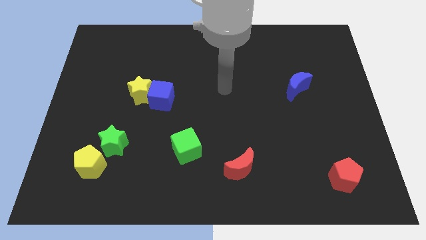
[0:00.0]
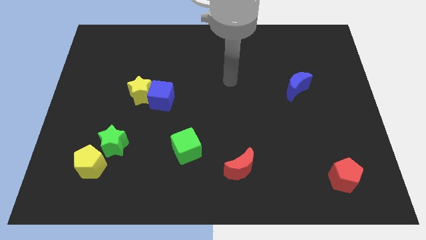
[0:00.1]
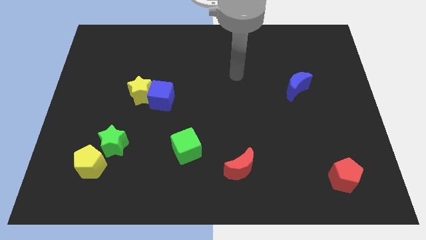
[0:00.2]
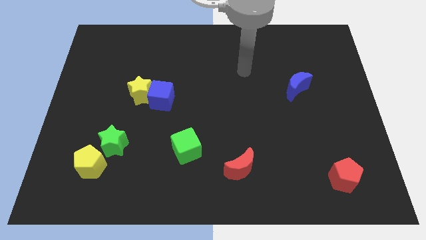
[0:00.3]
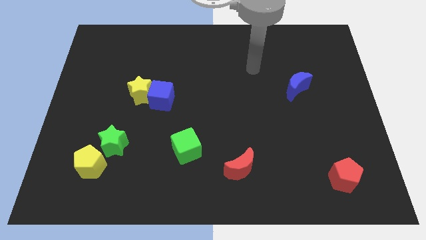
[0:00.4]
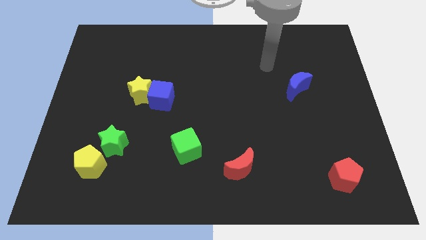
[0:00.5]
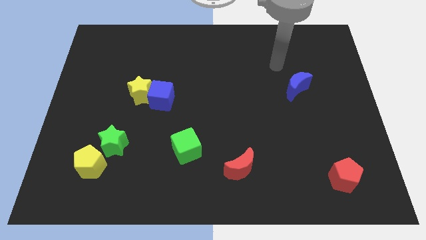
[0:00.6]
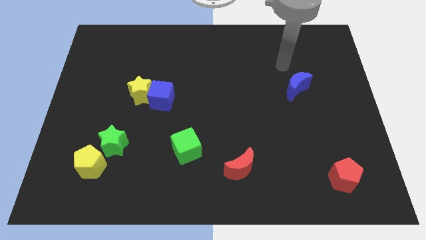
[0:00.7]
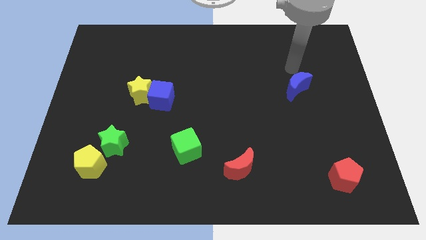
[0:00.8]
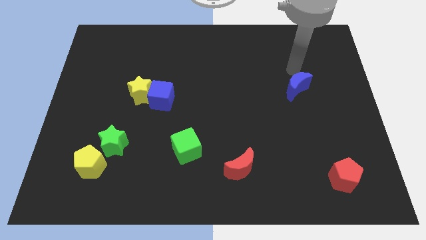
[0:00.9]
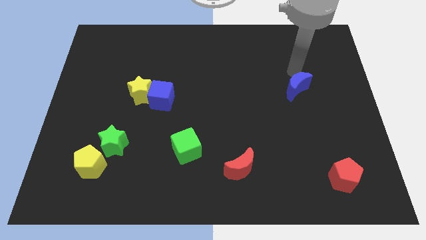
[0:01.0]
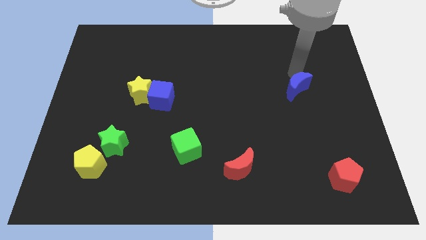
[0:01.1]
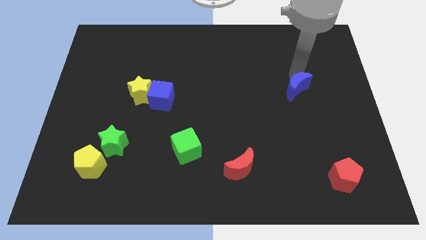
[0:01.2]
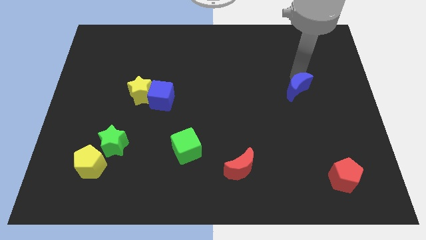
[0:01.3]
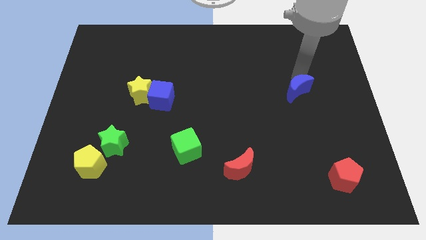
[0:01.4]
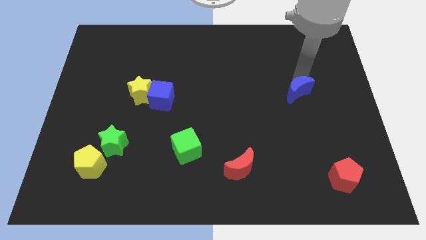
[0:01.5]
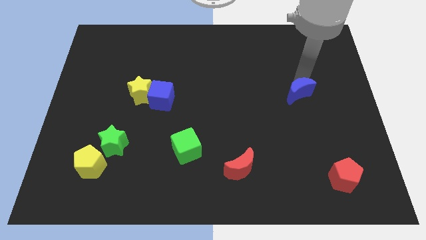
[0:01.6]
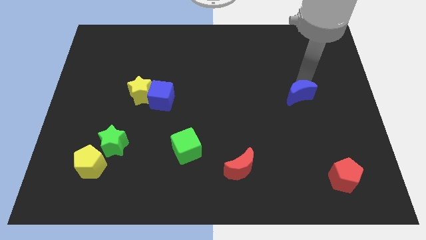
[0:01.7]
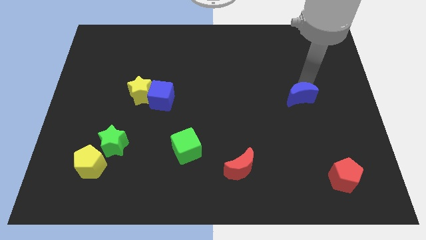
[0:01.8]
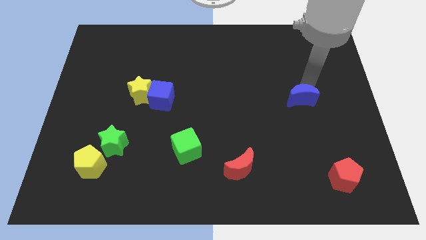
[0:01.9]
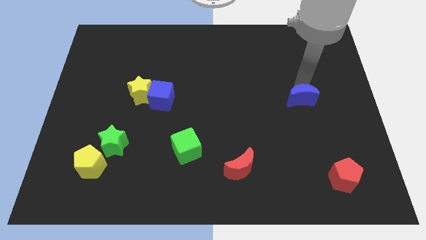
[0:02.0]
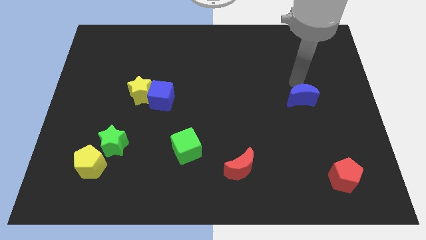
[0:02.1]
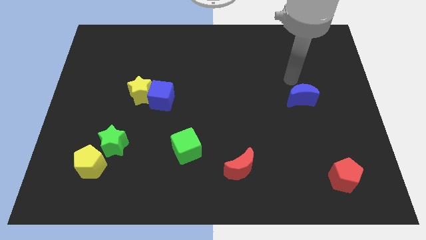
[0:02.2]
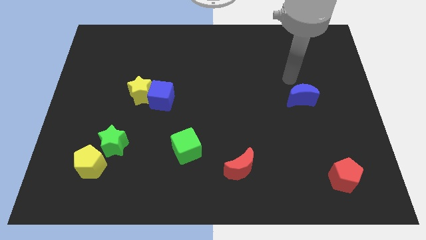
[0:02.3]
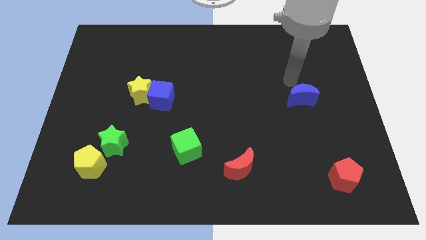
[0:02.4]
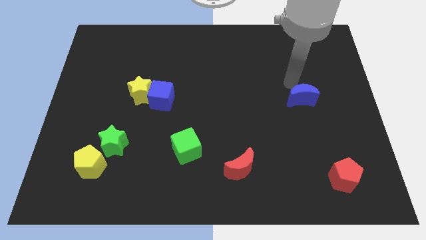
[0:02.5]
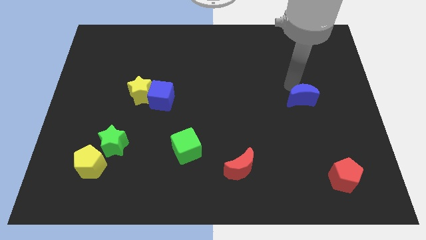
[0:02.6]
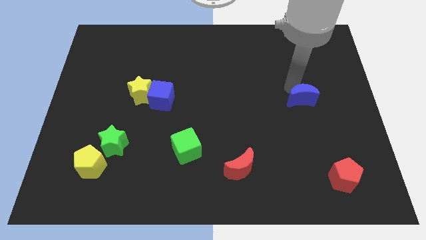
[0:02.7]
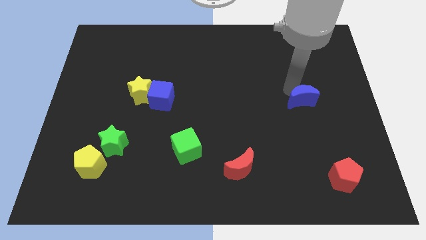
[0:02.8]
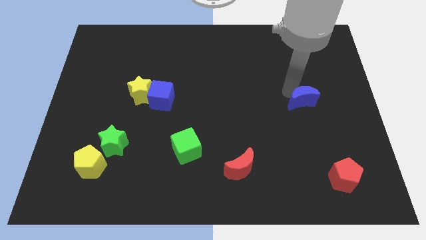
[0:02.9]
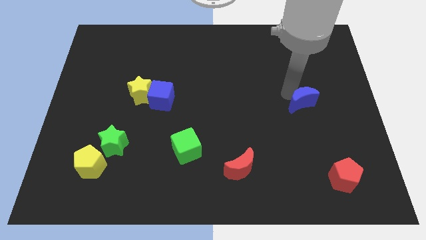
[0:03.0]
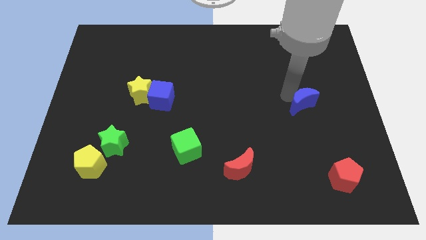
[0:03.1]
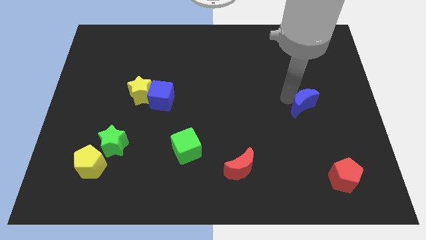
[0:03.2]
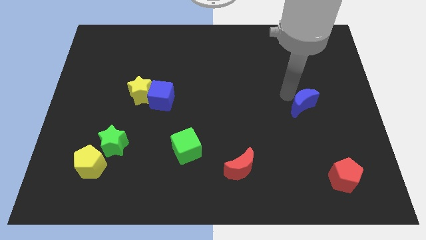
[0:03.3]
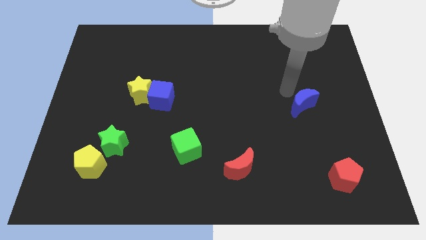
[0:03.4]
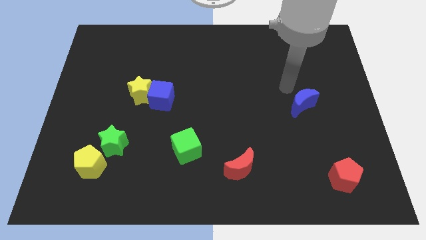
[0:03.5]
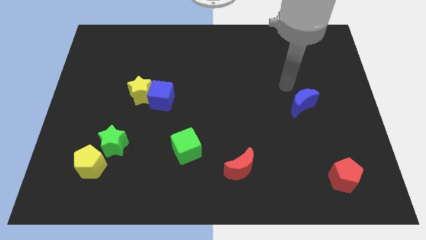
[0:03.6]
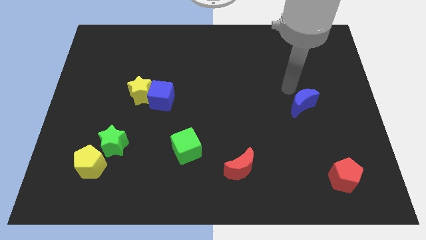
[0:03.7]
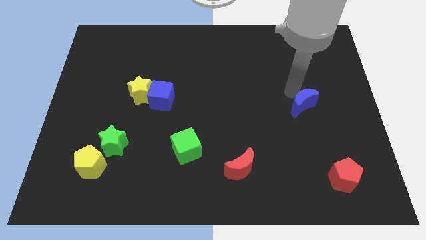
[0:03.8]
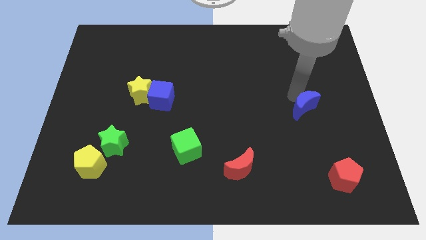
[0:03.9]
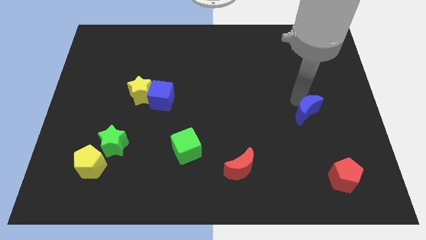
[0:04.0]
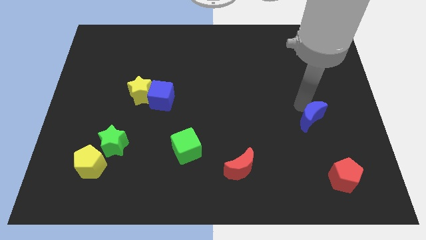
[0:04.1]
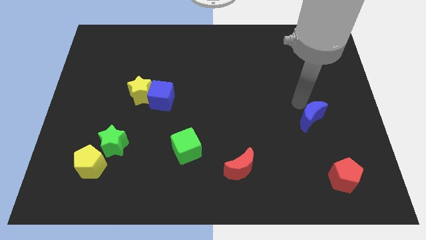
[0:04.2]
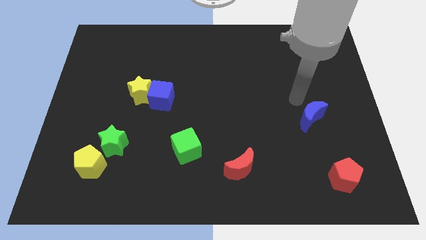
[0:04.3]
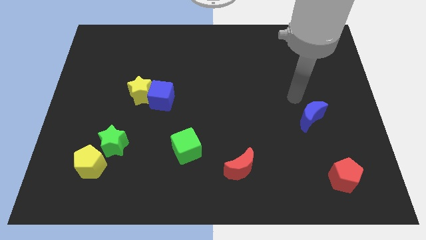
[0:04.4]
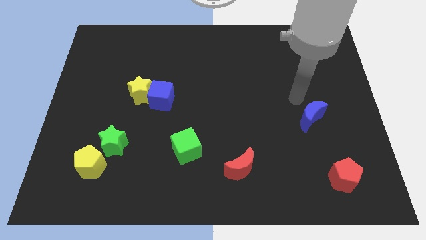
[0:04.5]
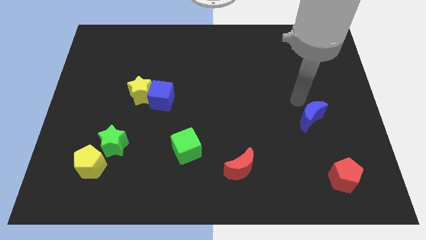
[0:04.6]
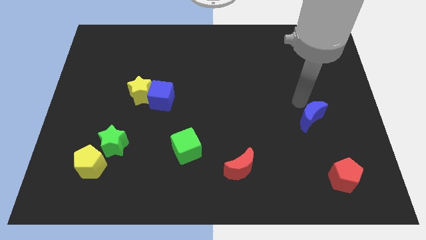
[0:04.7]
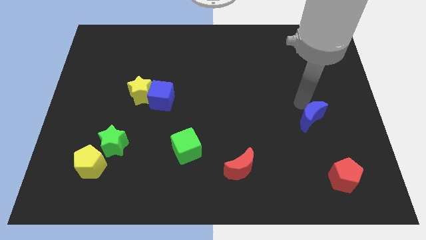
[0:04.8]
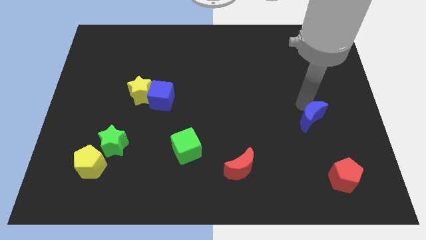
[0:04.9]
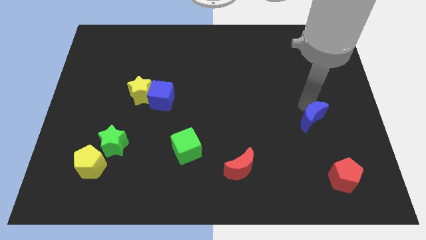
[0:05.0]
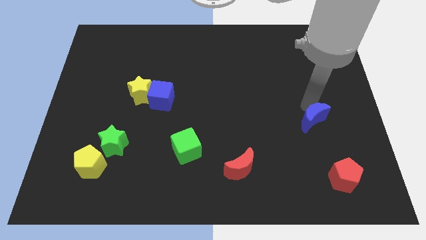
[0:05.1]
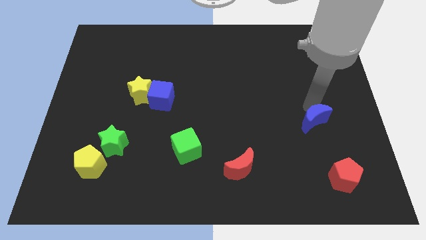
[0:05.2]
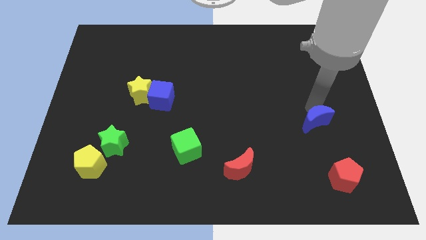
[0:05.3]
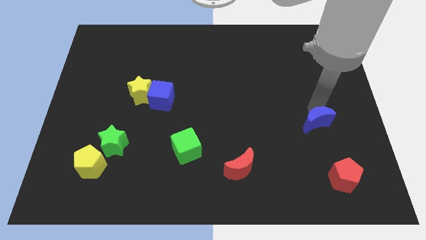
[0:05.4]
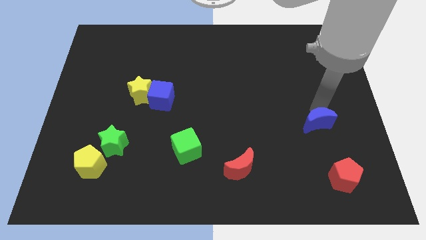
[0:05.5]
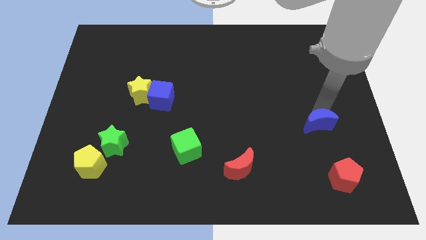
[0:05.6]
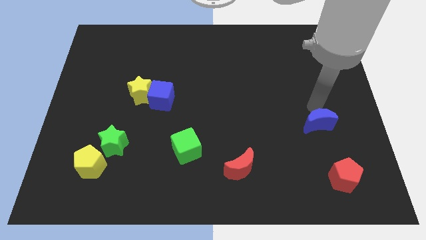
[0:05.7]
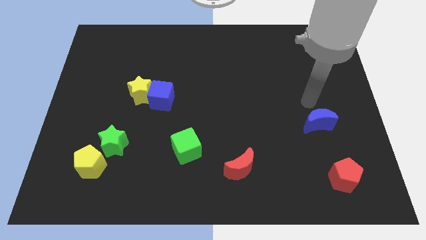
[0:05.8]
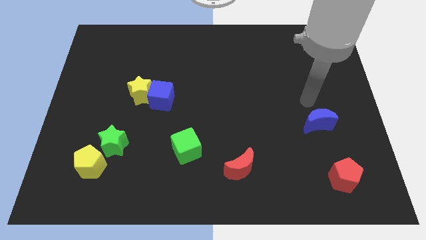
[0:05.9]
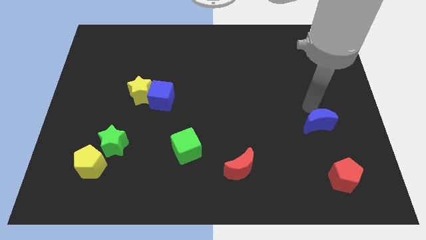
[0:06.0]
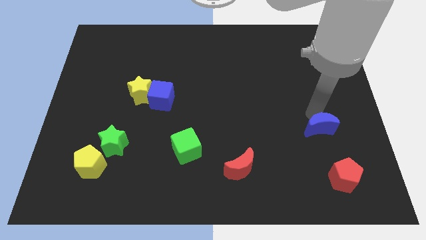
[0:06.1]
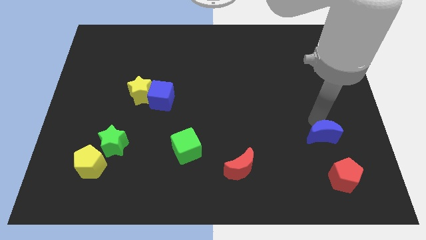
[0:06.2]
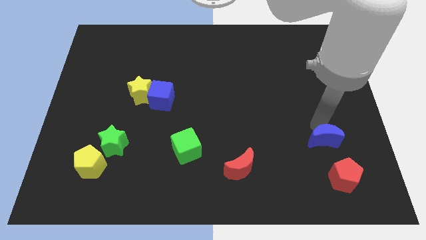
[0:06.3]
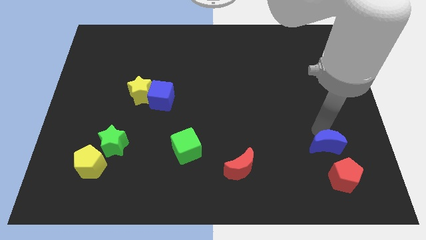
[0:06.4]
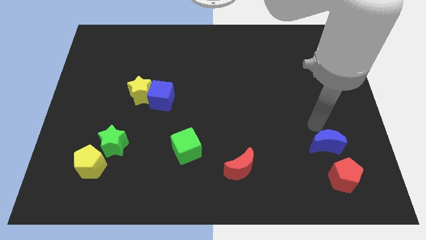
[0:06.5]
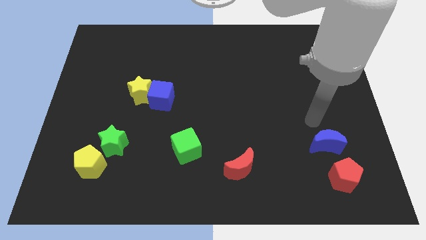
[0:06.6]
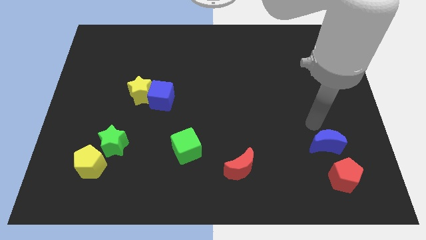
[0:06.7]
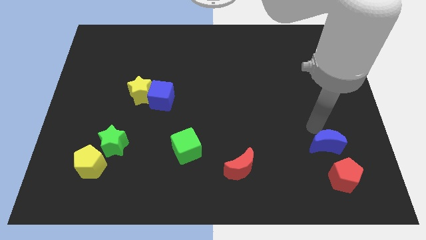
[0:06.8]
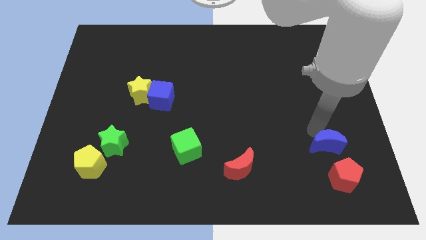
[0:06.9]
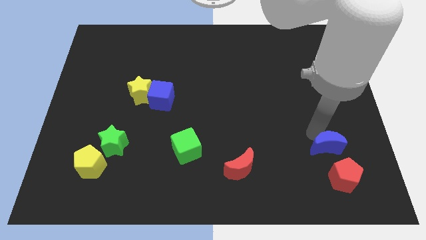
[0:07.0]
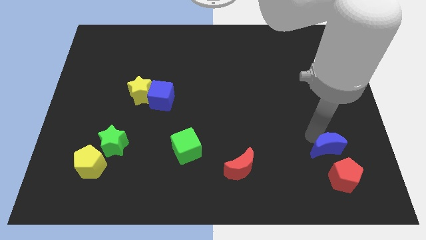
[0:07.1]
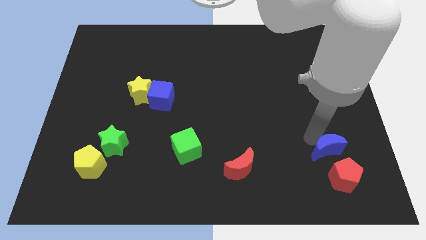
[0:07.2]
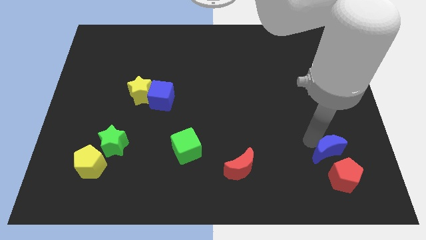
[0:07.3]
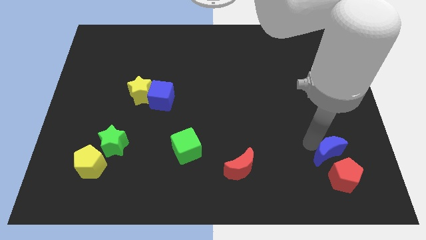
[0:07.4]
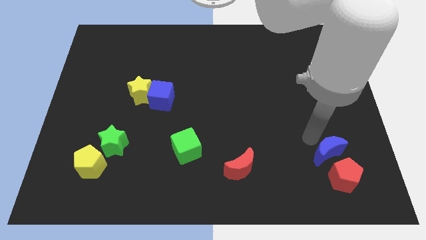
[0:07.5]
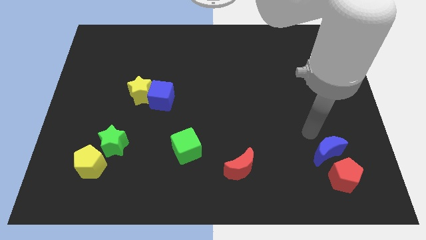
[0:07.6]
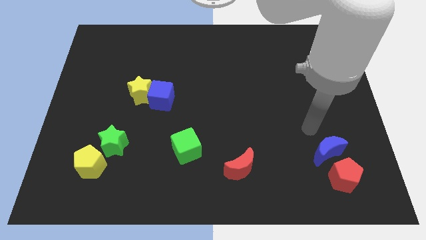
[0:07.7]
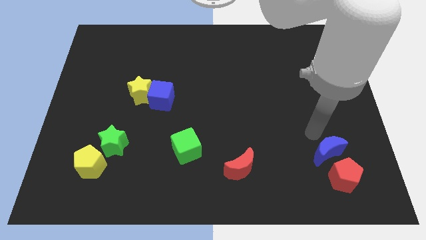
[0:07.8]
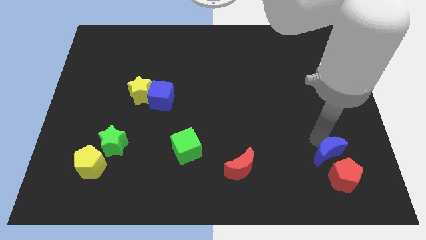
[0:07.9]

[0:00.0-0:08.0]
put the blue moon to the red pentagon
